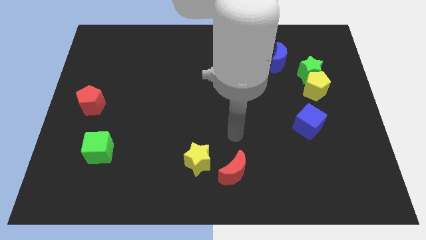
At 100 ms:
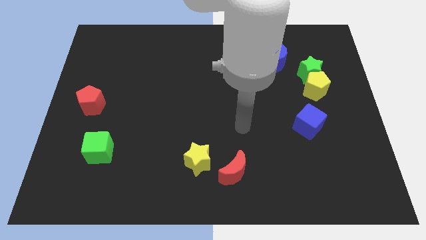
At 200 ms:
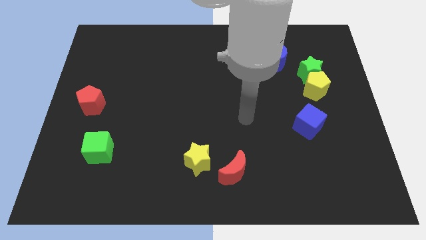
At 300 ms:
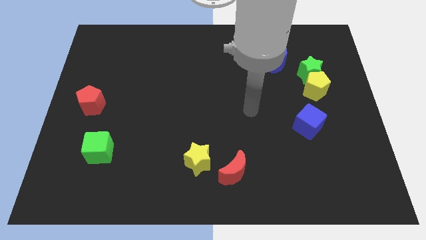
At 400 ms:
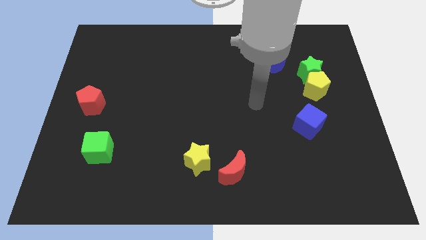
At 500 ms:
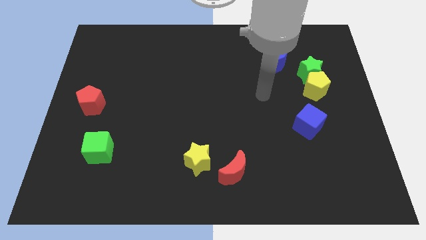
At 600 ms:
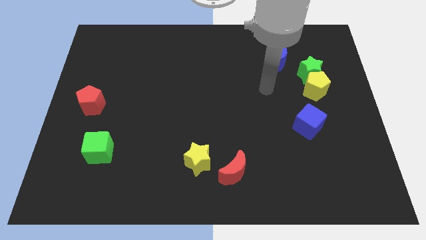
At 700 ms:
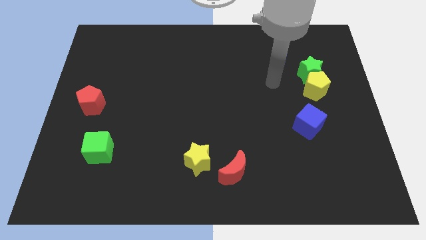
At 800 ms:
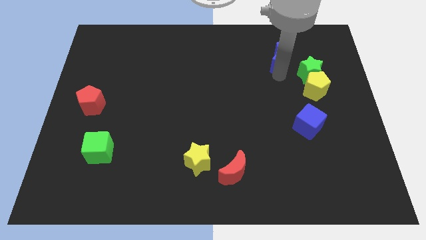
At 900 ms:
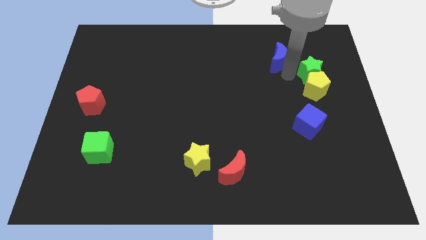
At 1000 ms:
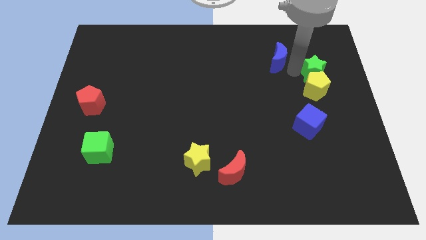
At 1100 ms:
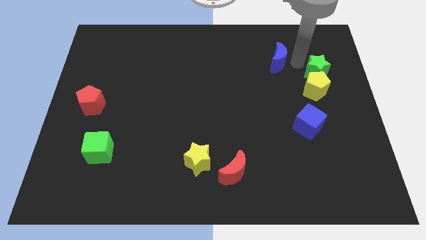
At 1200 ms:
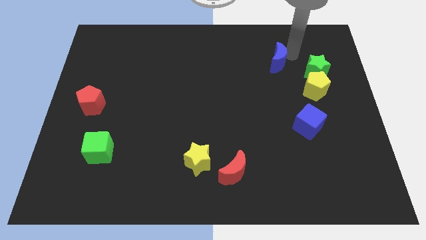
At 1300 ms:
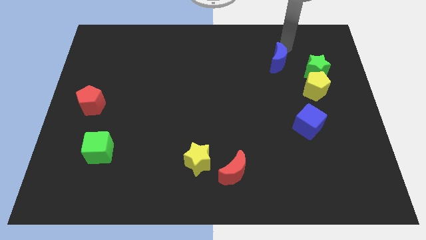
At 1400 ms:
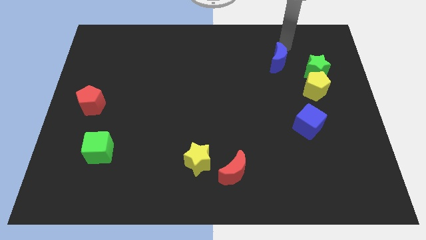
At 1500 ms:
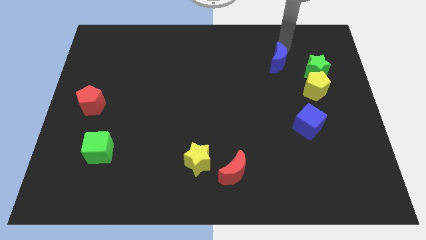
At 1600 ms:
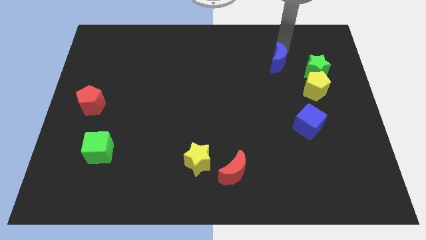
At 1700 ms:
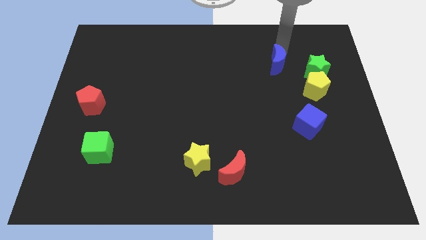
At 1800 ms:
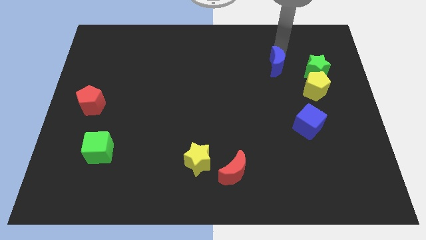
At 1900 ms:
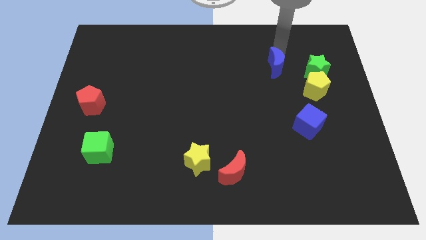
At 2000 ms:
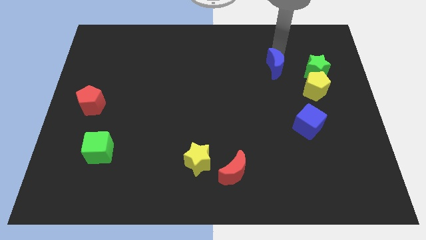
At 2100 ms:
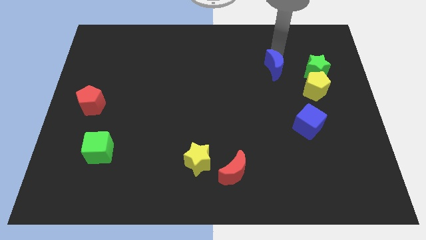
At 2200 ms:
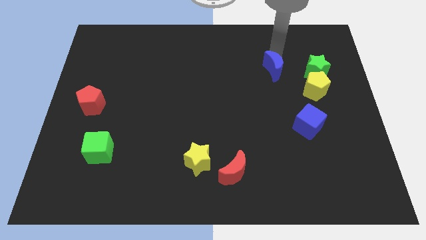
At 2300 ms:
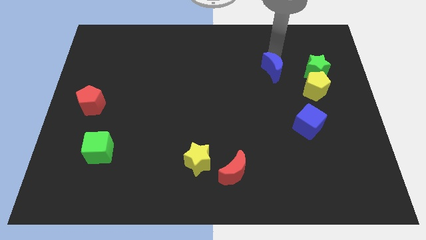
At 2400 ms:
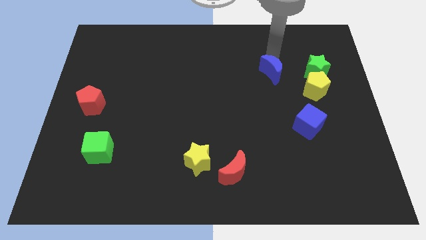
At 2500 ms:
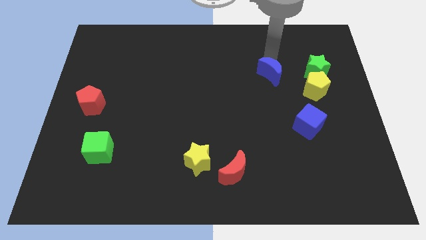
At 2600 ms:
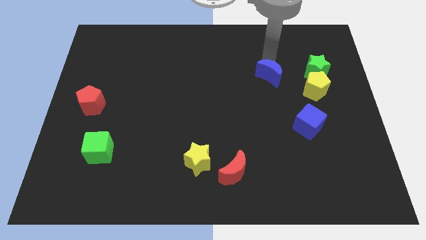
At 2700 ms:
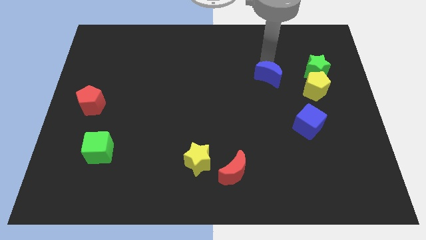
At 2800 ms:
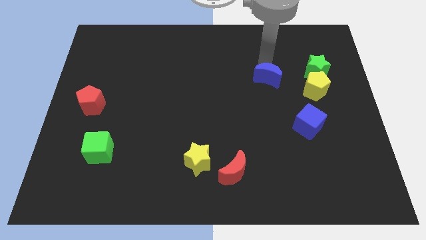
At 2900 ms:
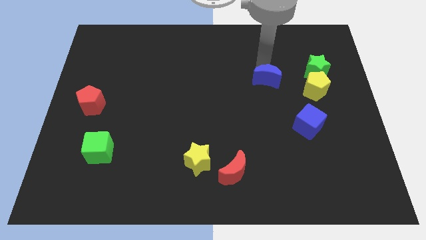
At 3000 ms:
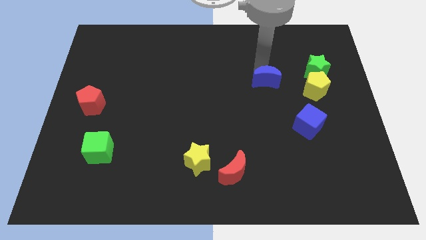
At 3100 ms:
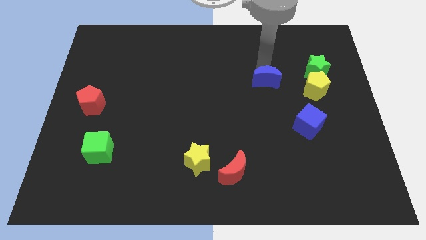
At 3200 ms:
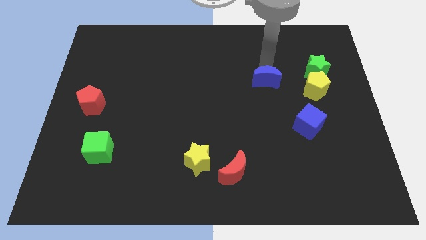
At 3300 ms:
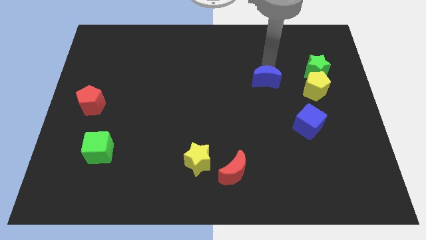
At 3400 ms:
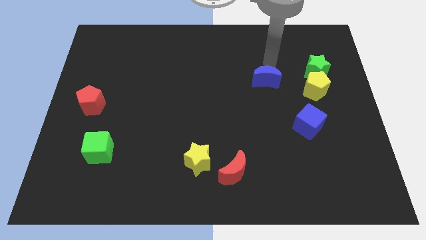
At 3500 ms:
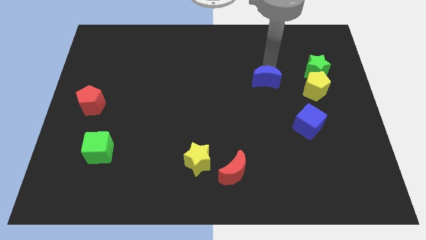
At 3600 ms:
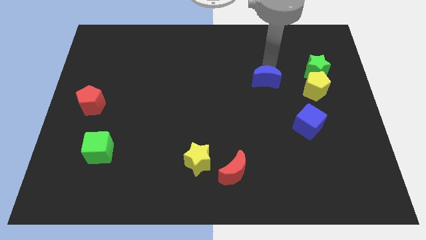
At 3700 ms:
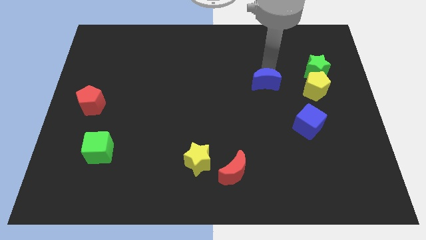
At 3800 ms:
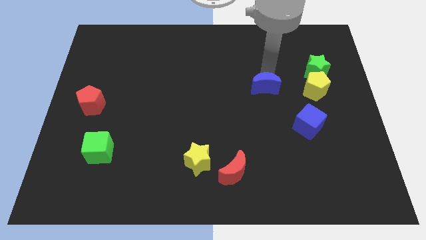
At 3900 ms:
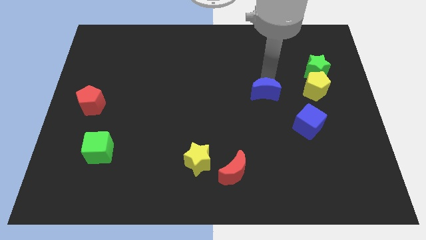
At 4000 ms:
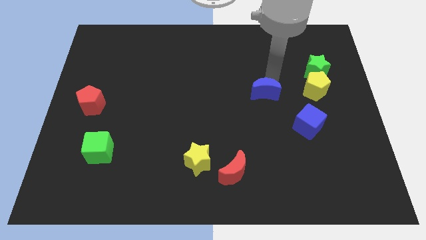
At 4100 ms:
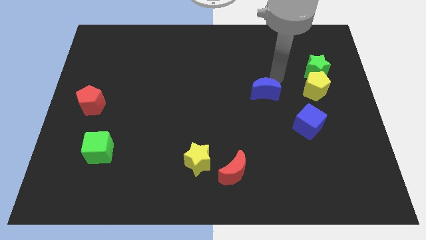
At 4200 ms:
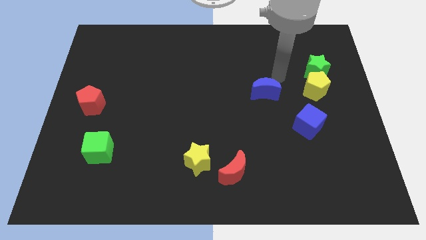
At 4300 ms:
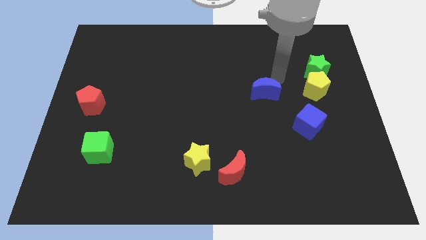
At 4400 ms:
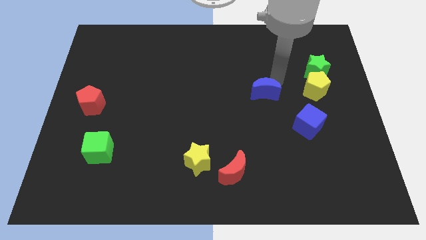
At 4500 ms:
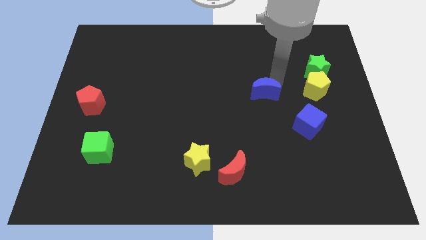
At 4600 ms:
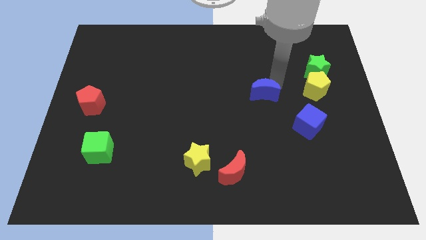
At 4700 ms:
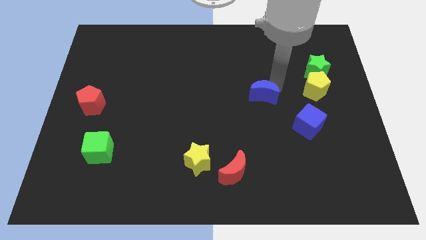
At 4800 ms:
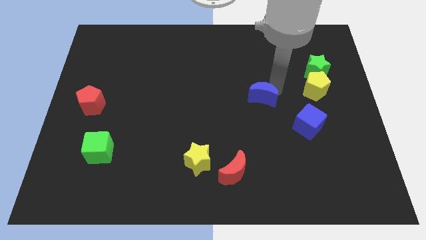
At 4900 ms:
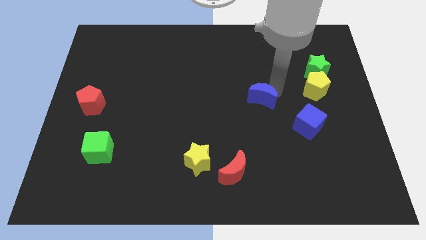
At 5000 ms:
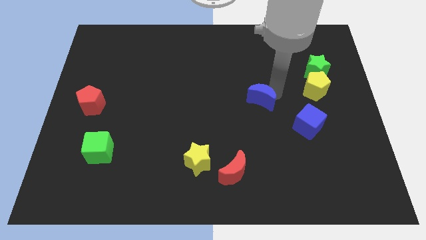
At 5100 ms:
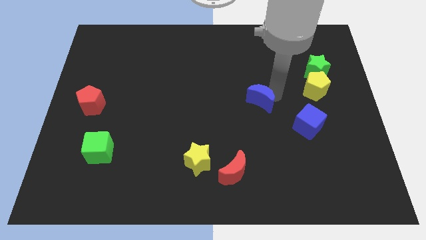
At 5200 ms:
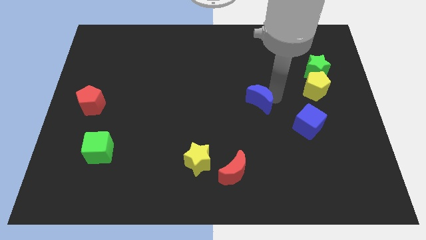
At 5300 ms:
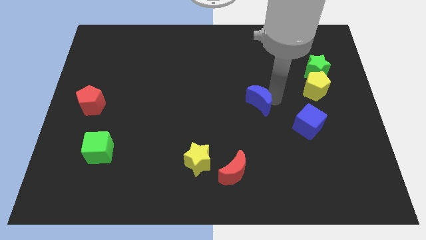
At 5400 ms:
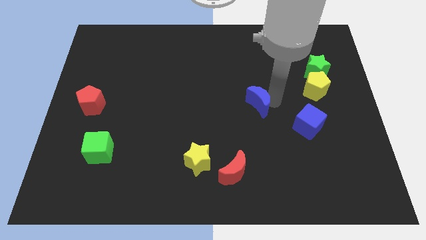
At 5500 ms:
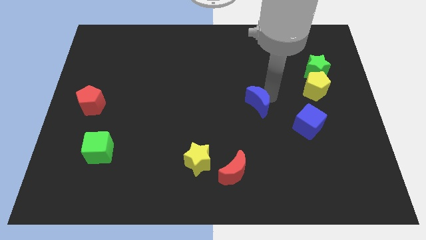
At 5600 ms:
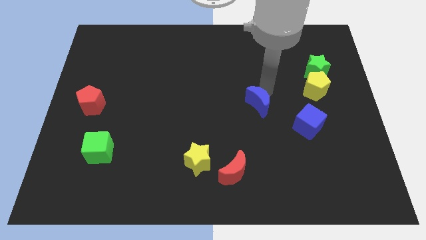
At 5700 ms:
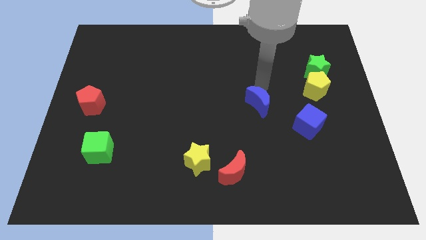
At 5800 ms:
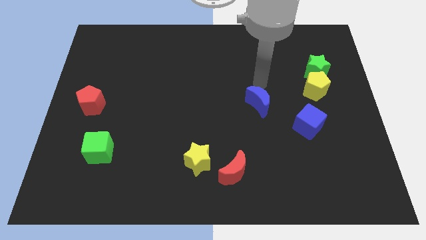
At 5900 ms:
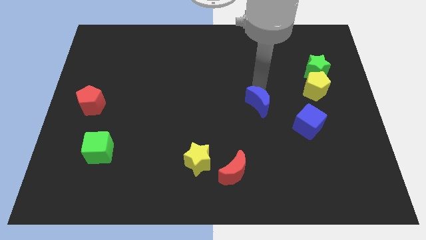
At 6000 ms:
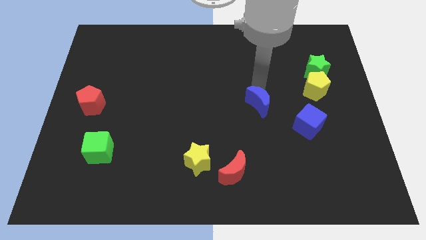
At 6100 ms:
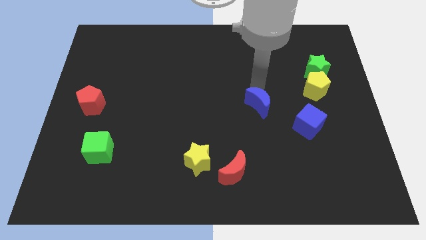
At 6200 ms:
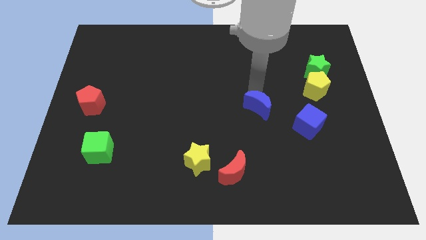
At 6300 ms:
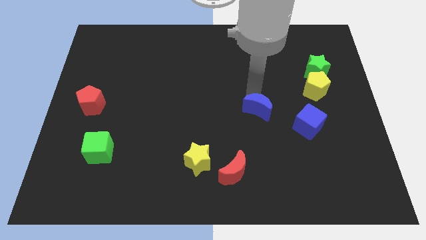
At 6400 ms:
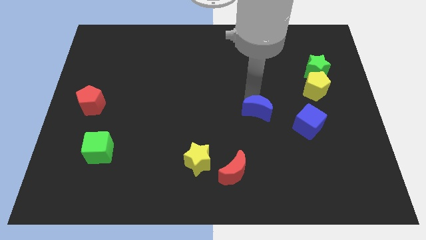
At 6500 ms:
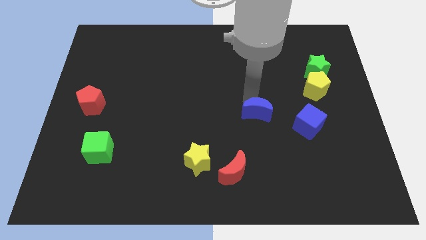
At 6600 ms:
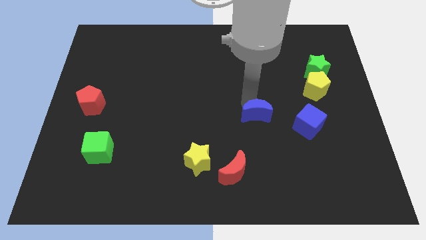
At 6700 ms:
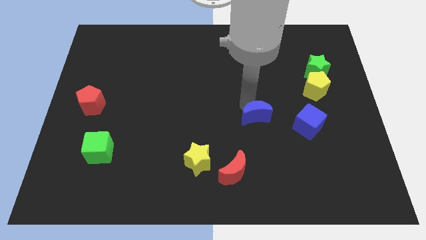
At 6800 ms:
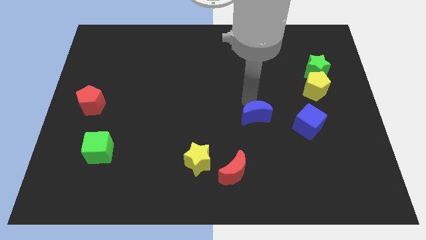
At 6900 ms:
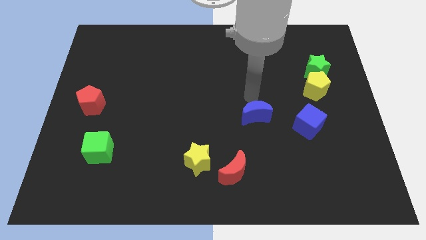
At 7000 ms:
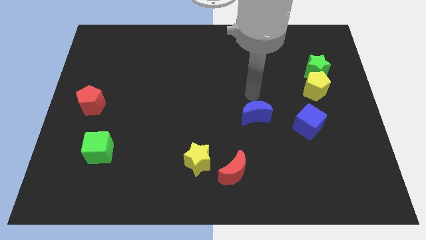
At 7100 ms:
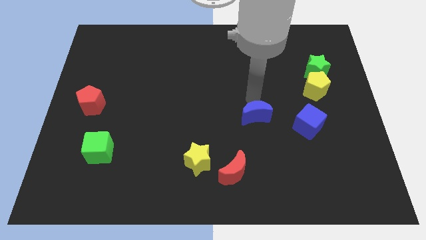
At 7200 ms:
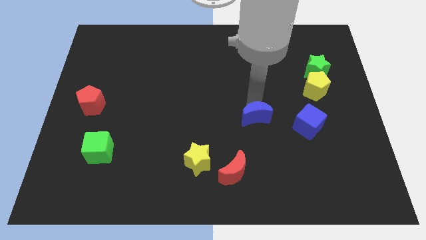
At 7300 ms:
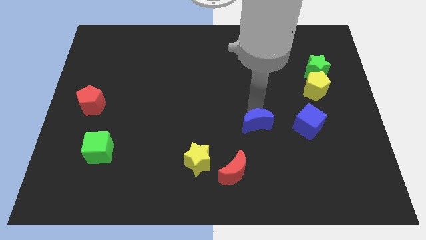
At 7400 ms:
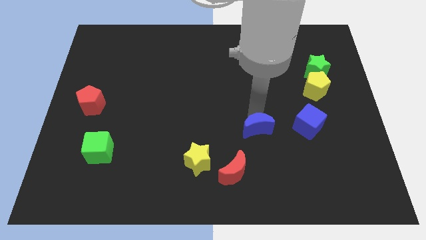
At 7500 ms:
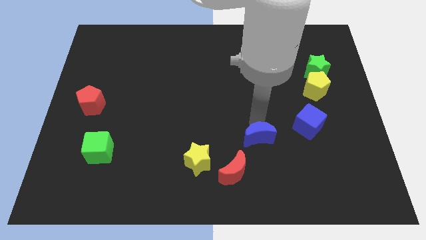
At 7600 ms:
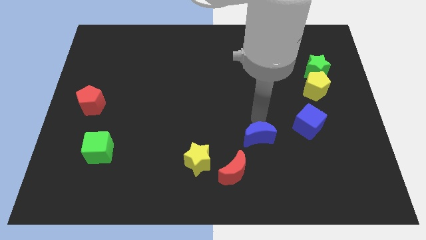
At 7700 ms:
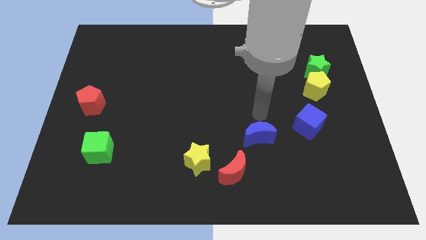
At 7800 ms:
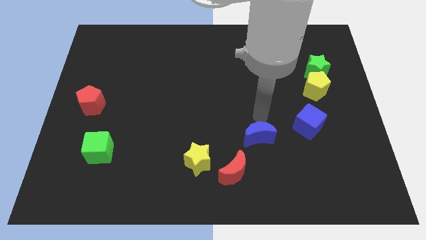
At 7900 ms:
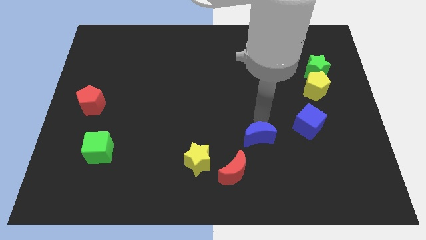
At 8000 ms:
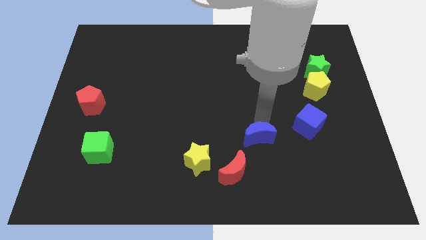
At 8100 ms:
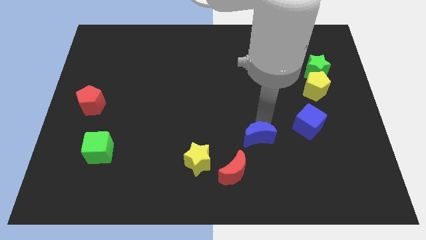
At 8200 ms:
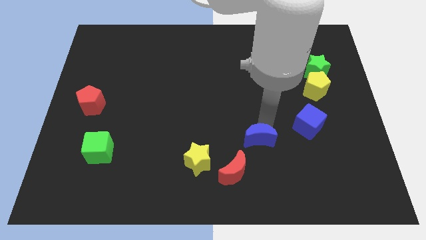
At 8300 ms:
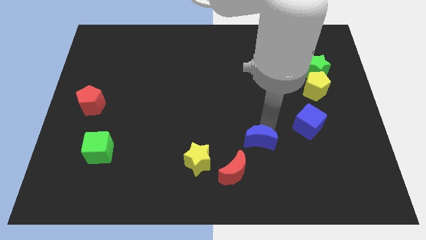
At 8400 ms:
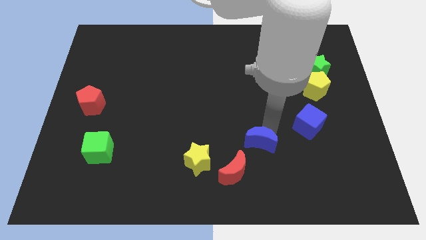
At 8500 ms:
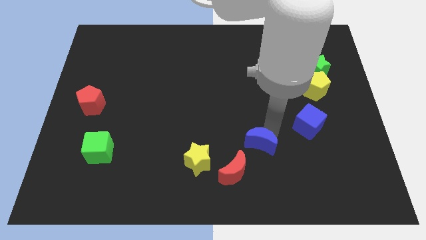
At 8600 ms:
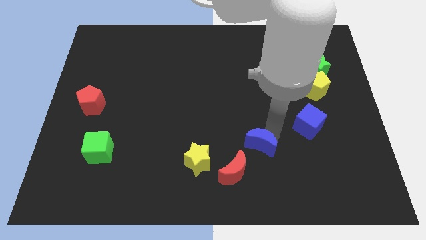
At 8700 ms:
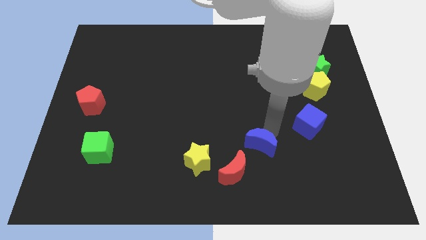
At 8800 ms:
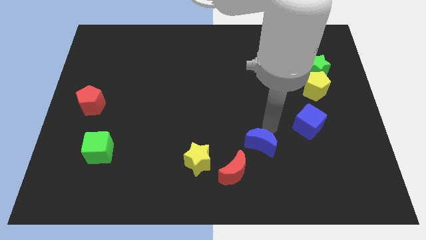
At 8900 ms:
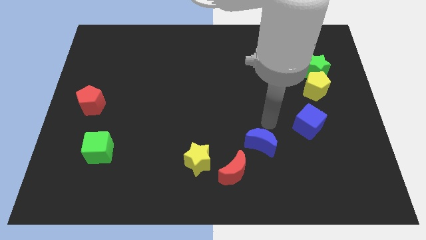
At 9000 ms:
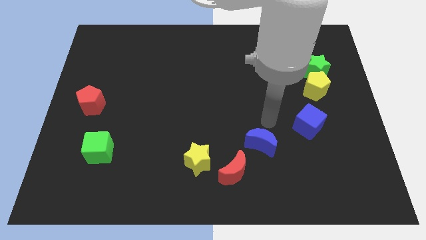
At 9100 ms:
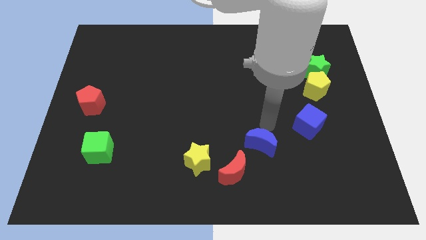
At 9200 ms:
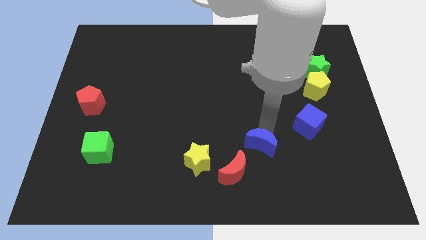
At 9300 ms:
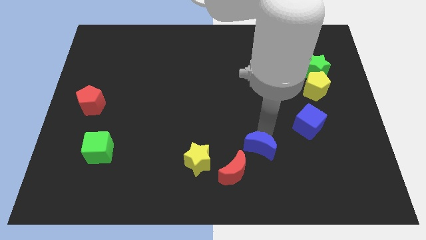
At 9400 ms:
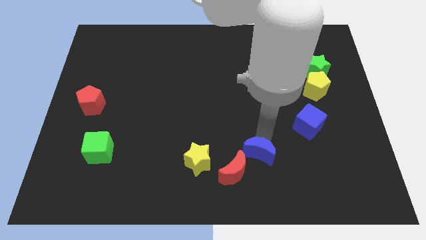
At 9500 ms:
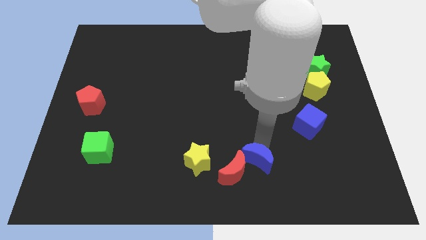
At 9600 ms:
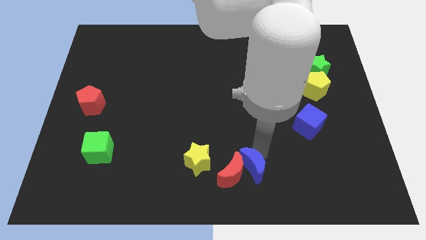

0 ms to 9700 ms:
push the blue moon to the bottom
